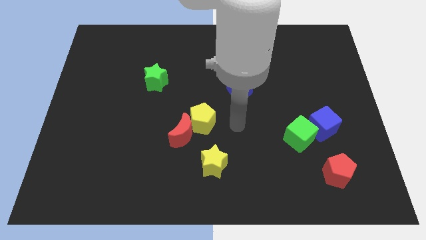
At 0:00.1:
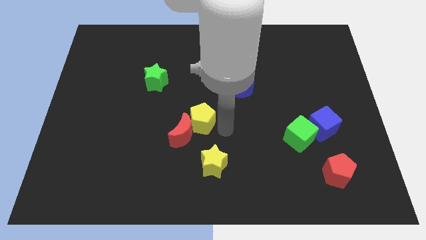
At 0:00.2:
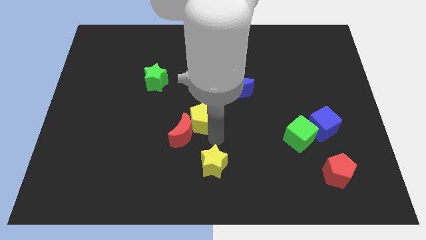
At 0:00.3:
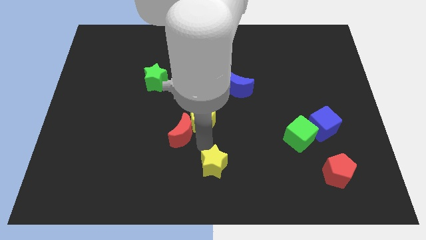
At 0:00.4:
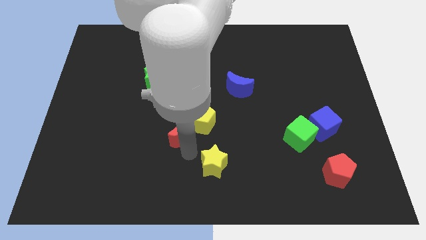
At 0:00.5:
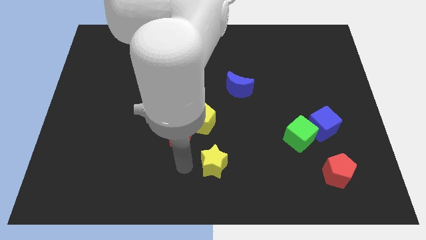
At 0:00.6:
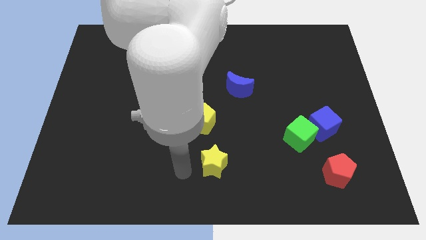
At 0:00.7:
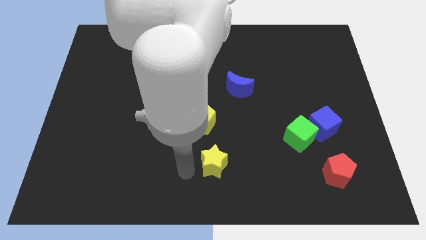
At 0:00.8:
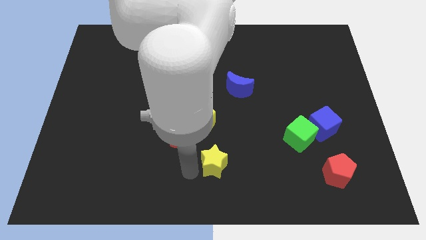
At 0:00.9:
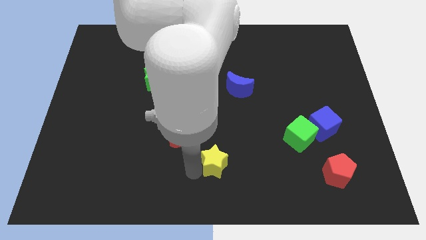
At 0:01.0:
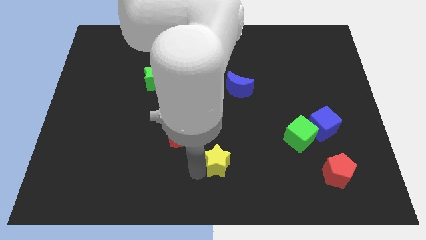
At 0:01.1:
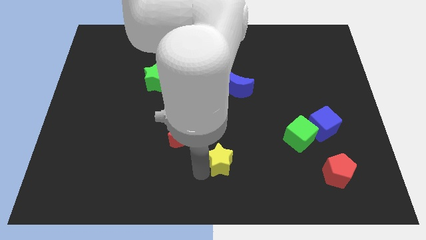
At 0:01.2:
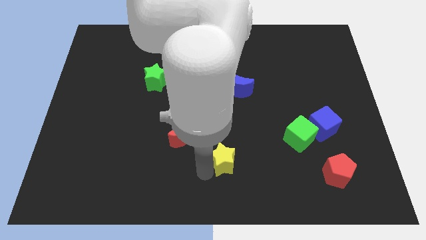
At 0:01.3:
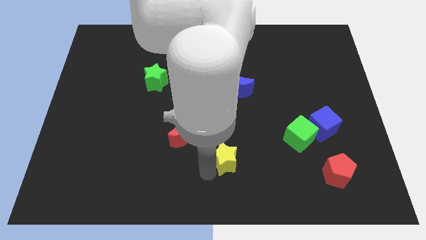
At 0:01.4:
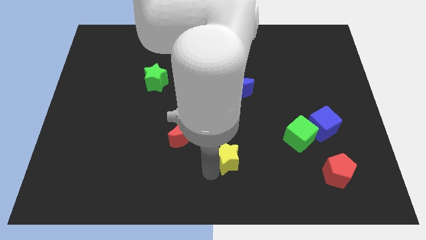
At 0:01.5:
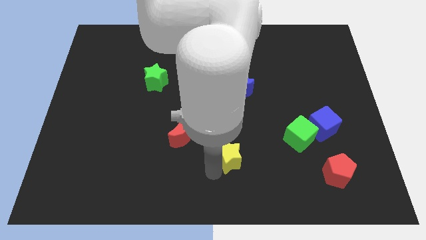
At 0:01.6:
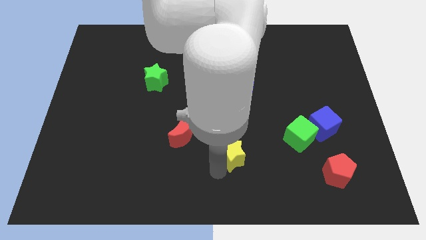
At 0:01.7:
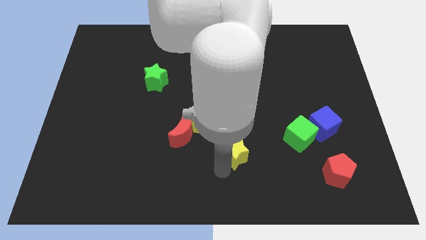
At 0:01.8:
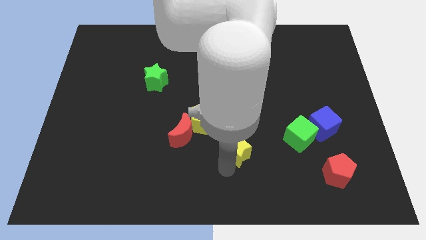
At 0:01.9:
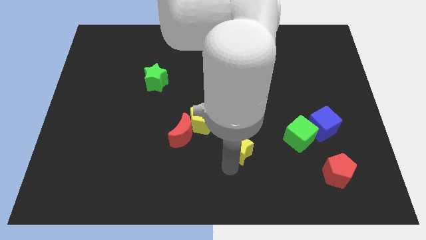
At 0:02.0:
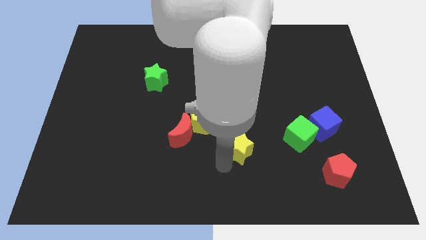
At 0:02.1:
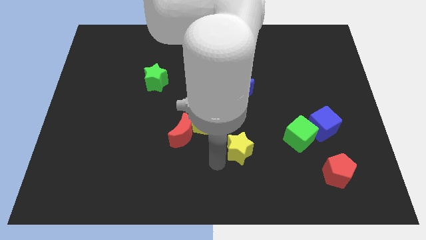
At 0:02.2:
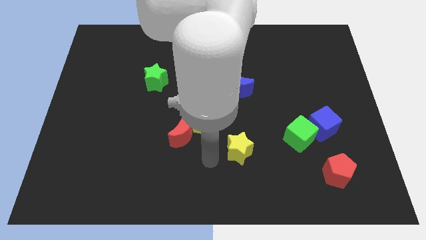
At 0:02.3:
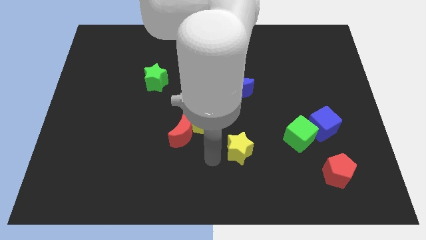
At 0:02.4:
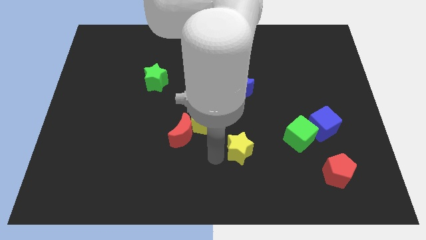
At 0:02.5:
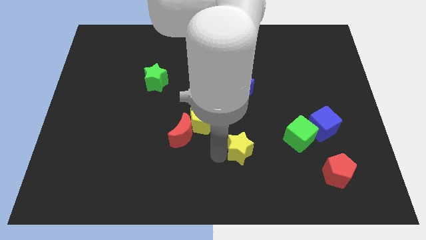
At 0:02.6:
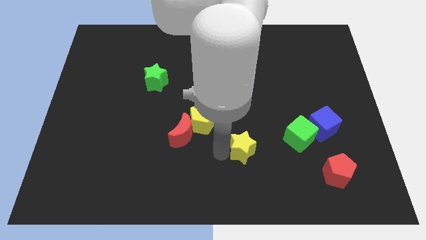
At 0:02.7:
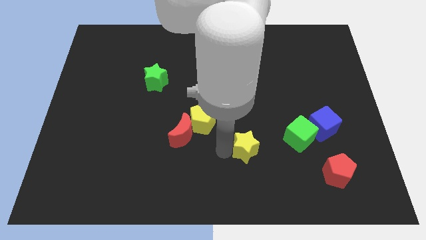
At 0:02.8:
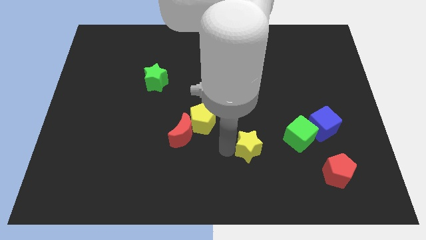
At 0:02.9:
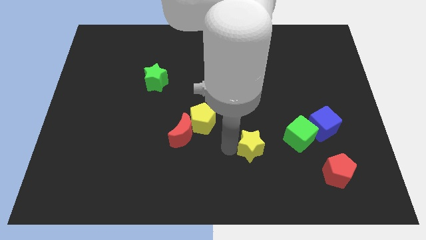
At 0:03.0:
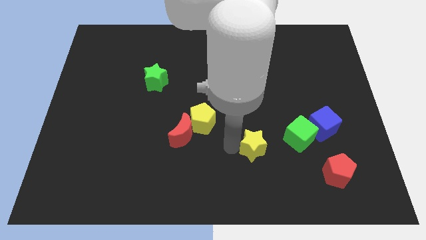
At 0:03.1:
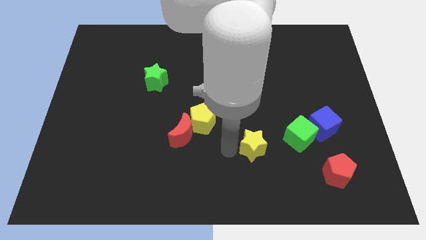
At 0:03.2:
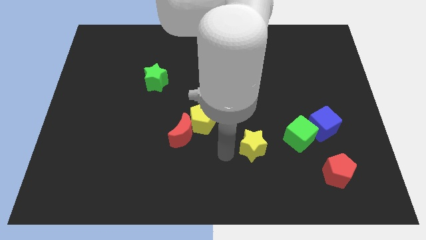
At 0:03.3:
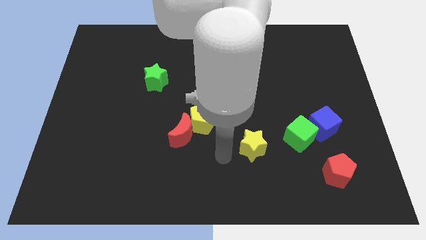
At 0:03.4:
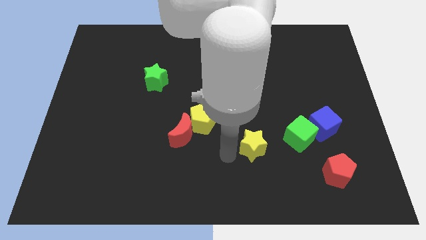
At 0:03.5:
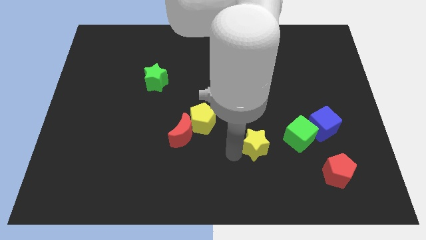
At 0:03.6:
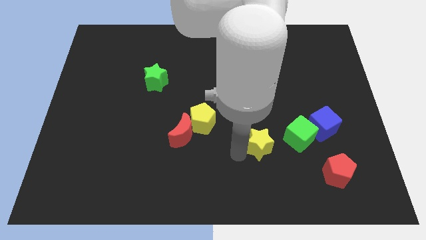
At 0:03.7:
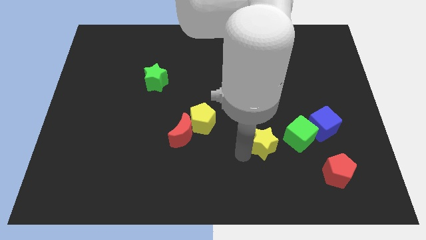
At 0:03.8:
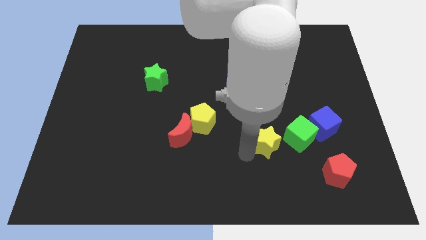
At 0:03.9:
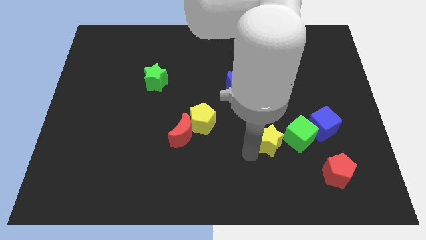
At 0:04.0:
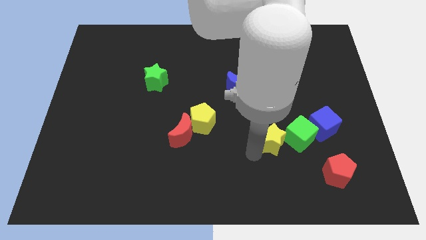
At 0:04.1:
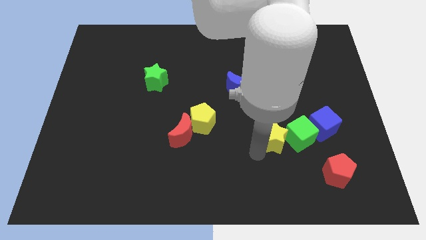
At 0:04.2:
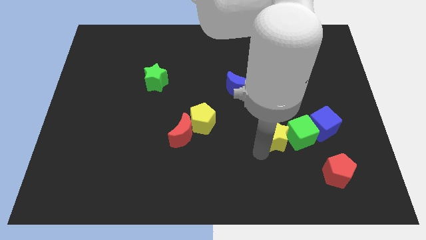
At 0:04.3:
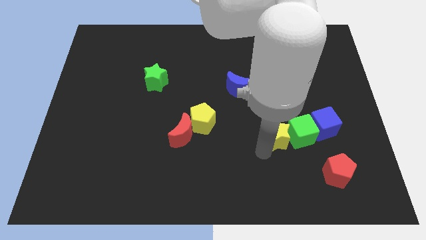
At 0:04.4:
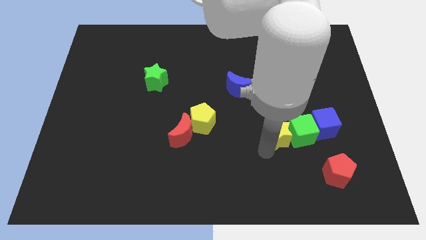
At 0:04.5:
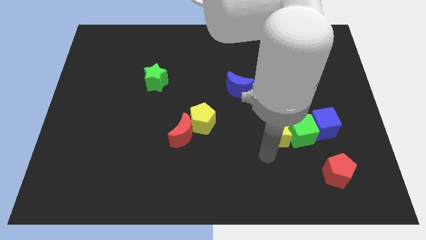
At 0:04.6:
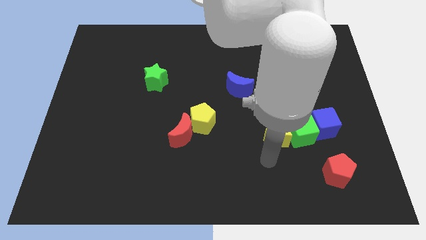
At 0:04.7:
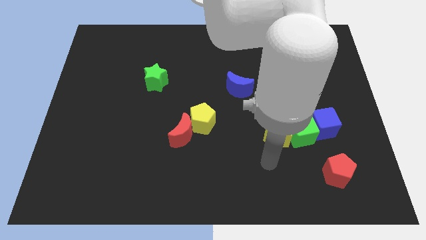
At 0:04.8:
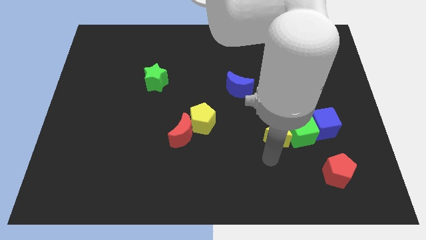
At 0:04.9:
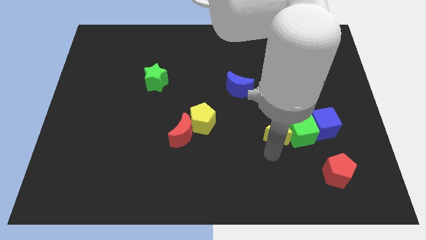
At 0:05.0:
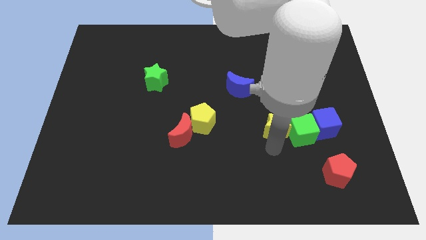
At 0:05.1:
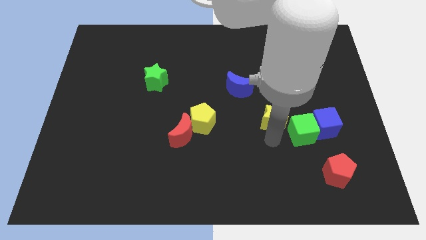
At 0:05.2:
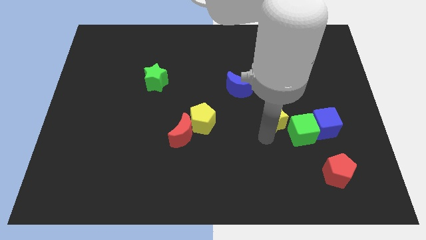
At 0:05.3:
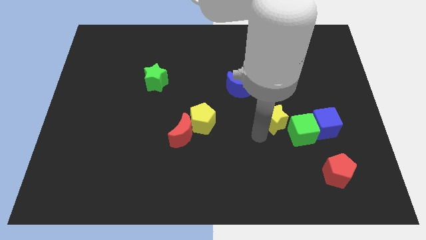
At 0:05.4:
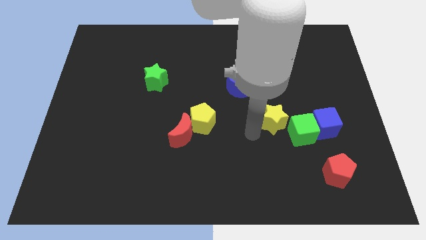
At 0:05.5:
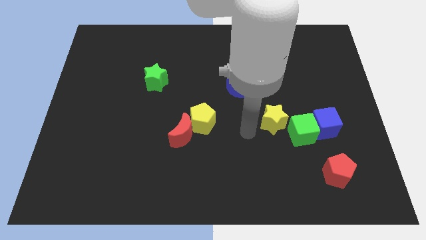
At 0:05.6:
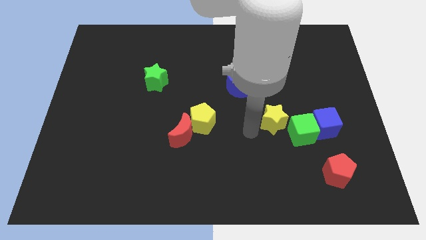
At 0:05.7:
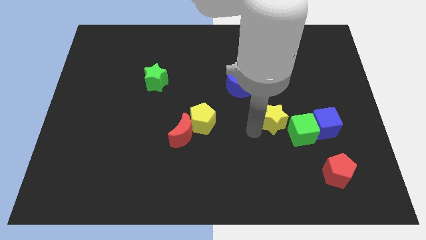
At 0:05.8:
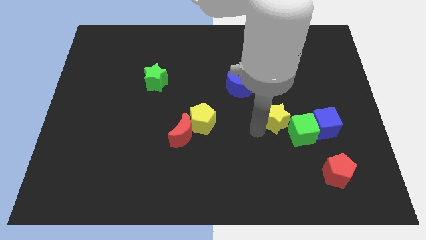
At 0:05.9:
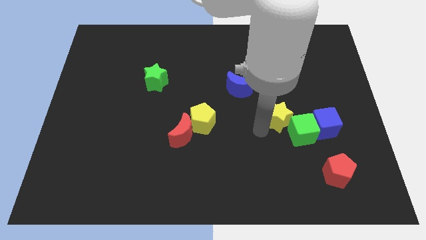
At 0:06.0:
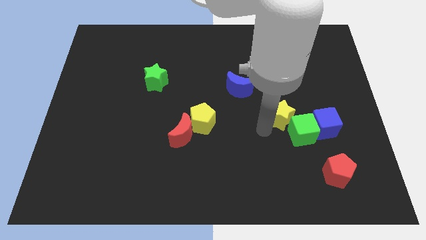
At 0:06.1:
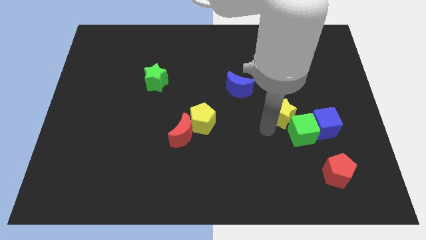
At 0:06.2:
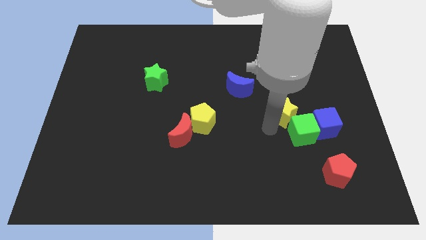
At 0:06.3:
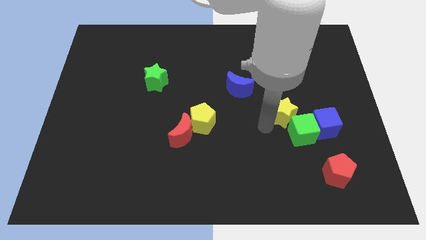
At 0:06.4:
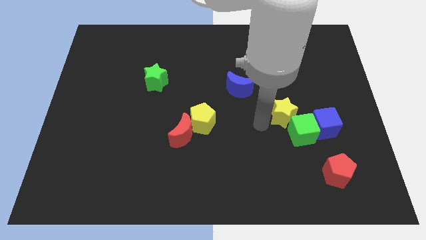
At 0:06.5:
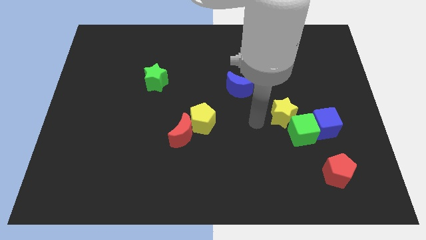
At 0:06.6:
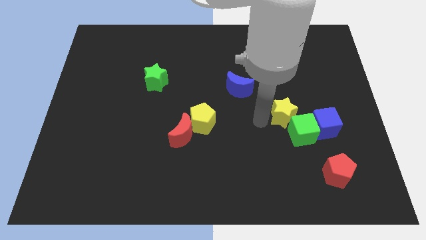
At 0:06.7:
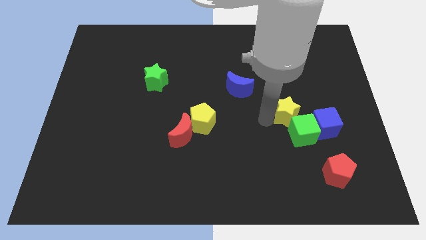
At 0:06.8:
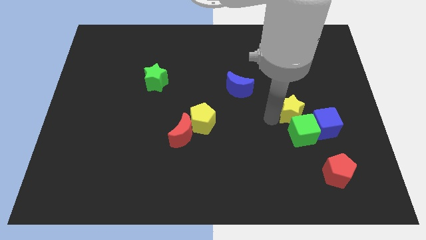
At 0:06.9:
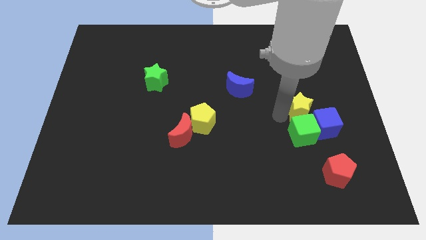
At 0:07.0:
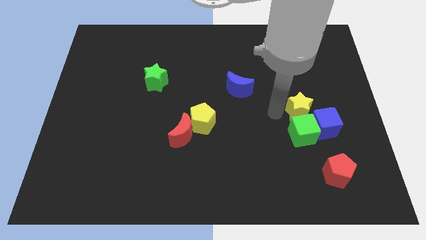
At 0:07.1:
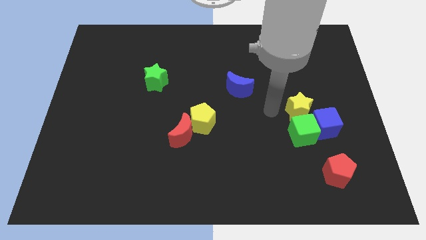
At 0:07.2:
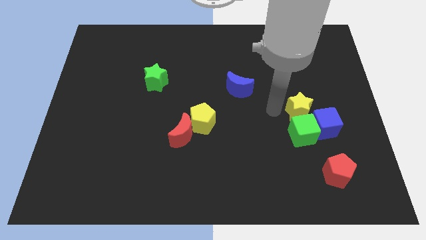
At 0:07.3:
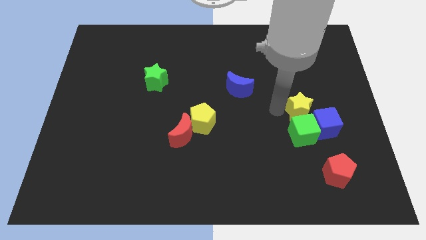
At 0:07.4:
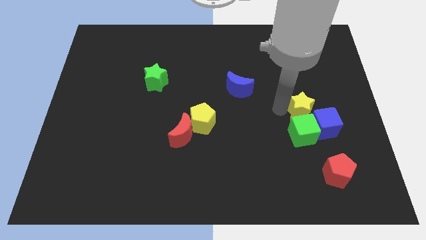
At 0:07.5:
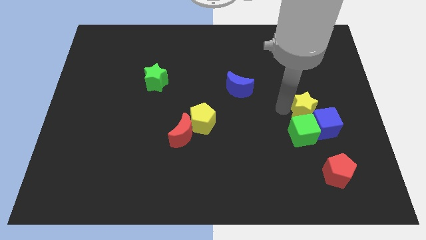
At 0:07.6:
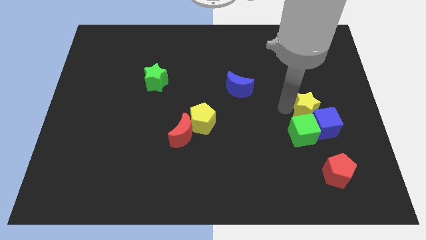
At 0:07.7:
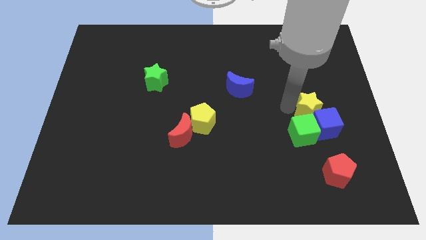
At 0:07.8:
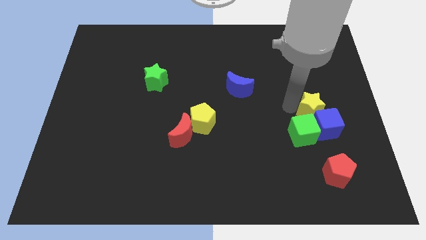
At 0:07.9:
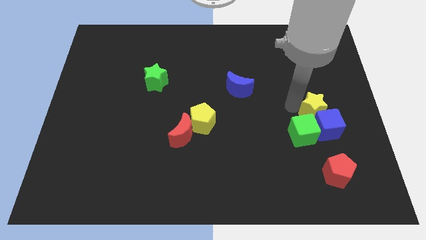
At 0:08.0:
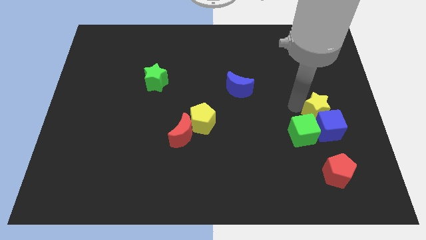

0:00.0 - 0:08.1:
put the yellow star to the top side of the red pentagon

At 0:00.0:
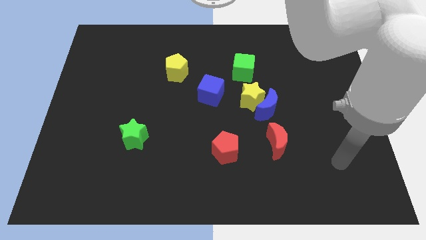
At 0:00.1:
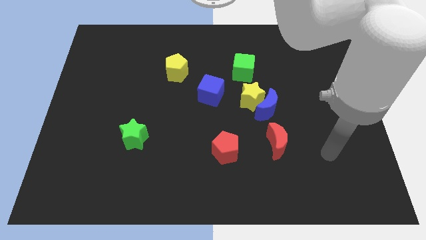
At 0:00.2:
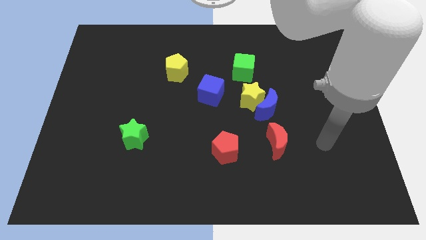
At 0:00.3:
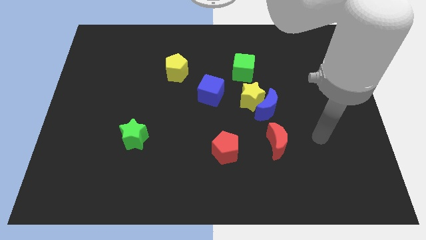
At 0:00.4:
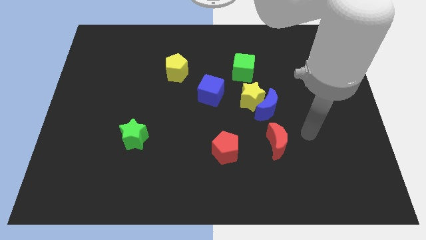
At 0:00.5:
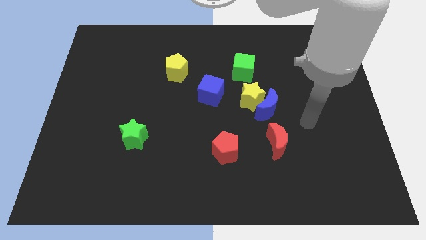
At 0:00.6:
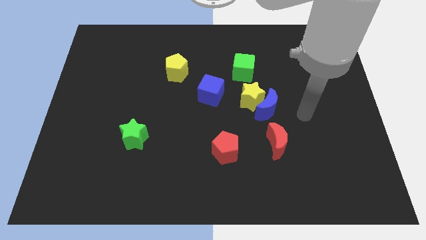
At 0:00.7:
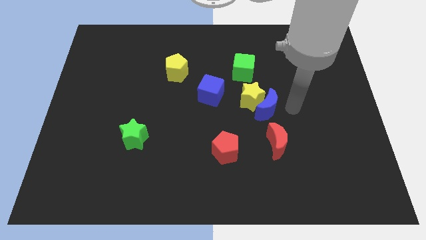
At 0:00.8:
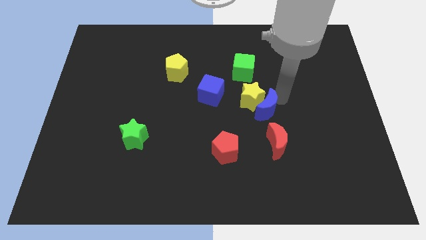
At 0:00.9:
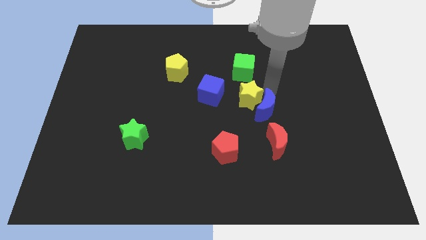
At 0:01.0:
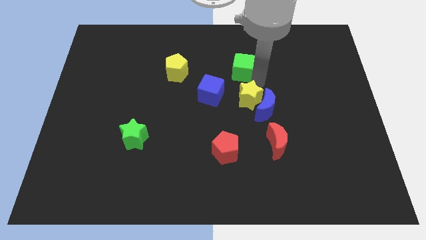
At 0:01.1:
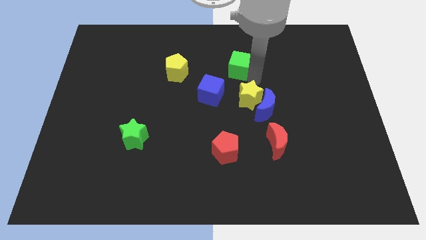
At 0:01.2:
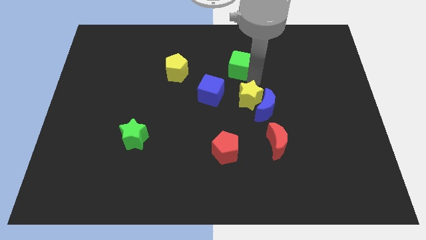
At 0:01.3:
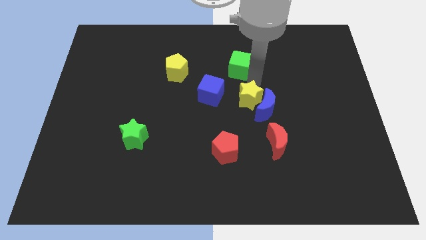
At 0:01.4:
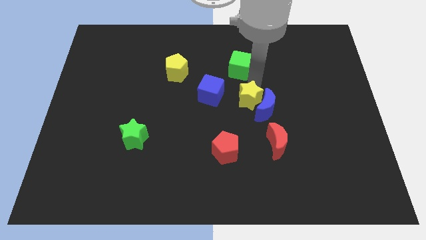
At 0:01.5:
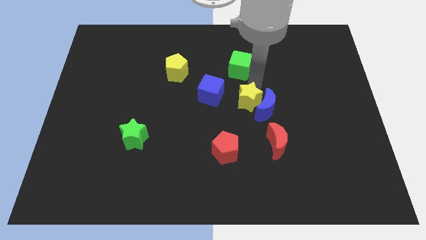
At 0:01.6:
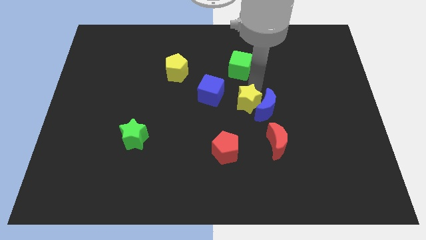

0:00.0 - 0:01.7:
put the yellow star to the bottom left of the blue moon
